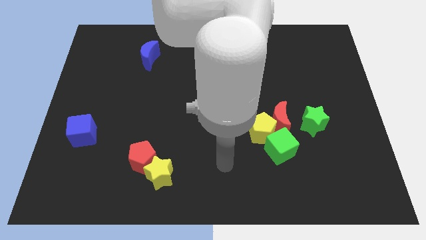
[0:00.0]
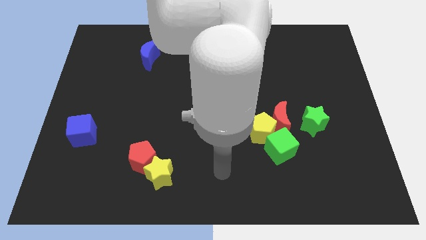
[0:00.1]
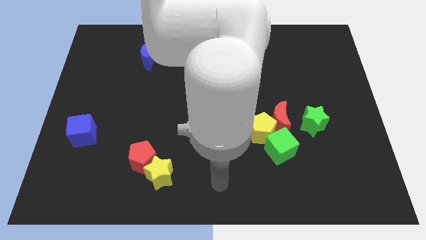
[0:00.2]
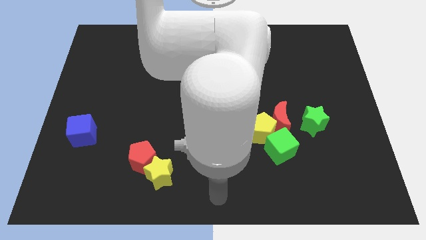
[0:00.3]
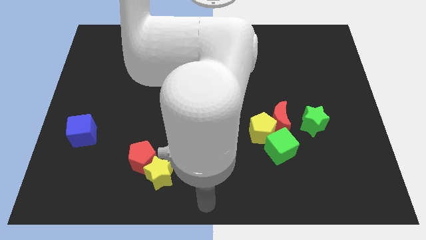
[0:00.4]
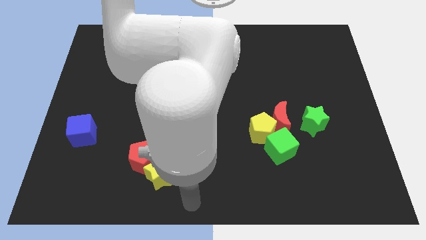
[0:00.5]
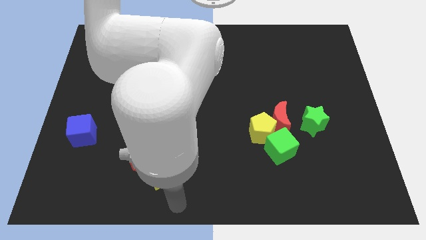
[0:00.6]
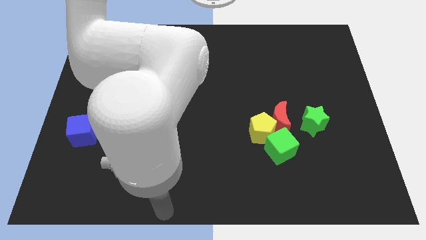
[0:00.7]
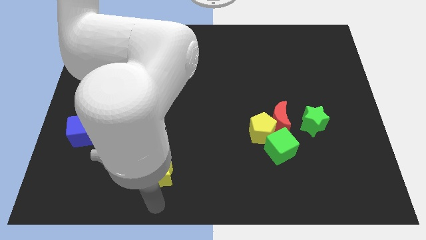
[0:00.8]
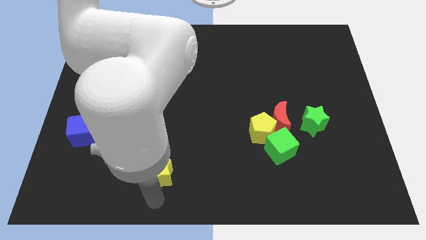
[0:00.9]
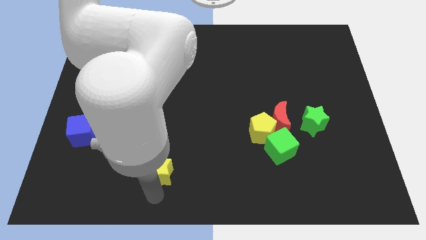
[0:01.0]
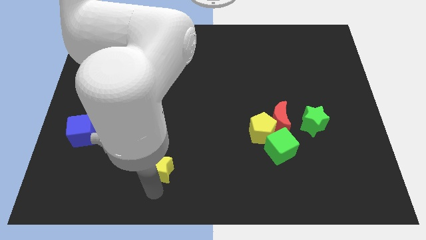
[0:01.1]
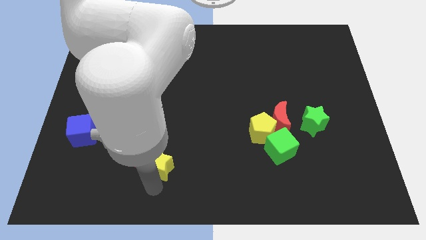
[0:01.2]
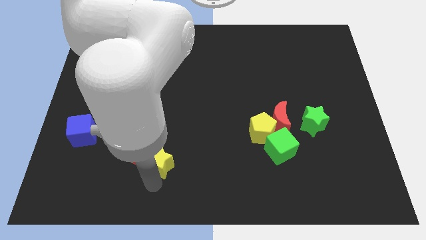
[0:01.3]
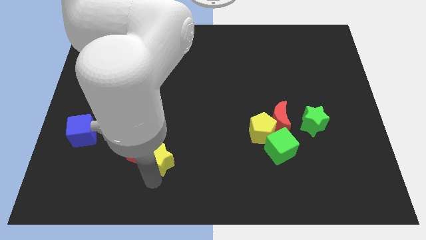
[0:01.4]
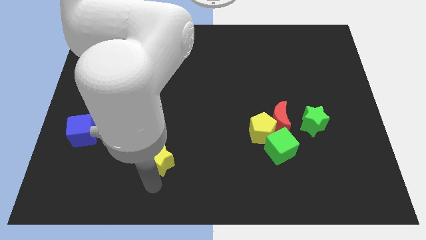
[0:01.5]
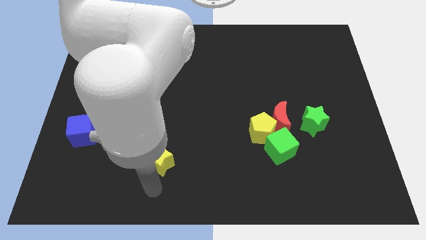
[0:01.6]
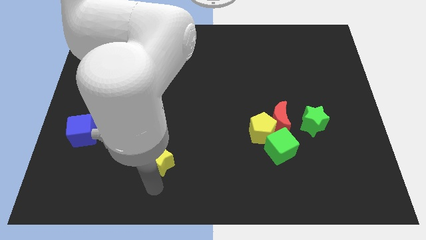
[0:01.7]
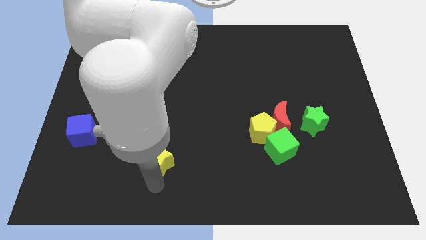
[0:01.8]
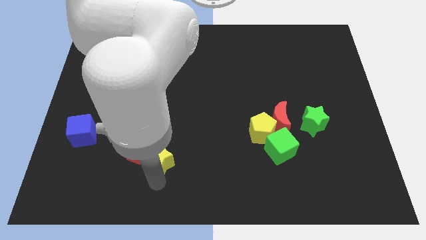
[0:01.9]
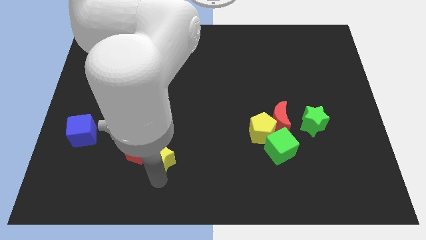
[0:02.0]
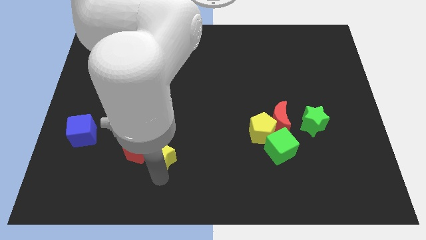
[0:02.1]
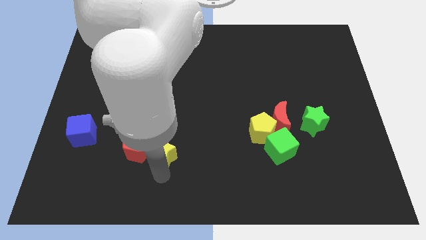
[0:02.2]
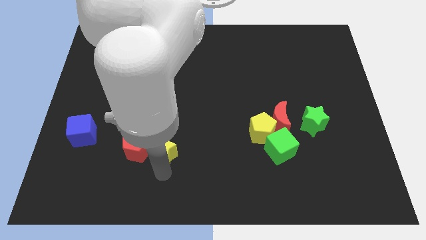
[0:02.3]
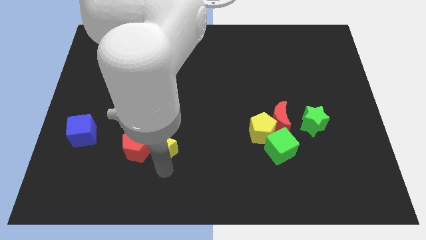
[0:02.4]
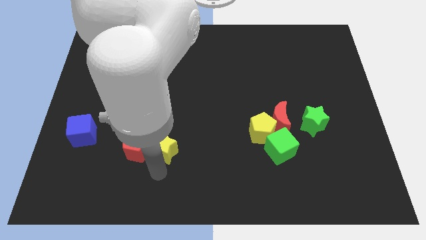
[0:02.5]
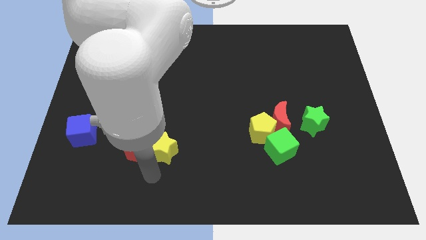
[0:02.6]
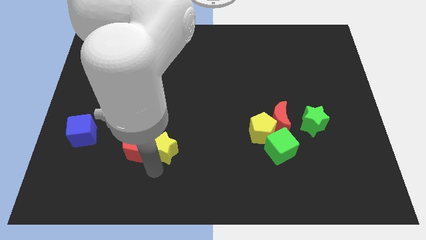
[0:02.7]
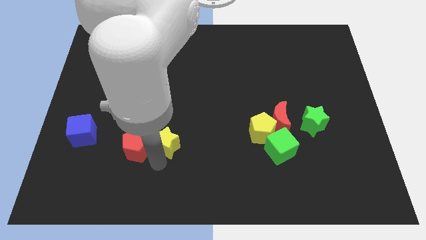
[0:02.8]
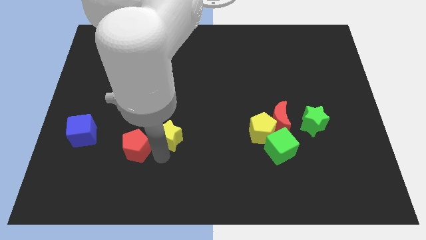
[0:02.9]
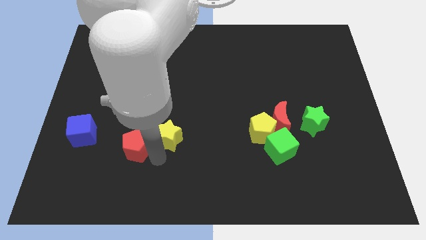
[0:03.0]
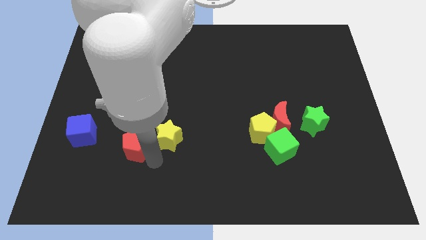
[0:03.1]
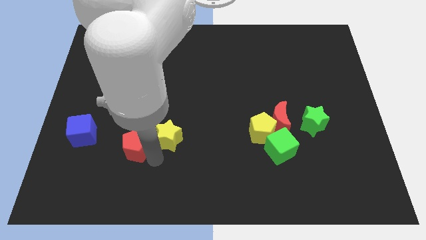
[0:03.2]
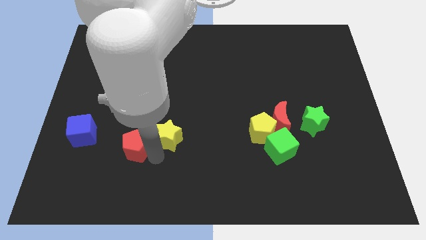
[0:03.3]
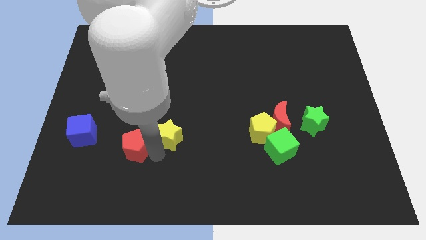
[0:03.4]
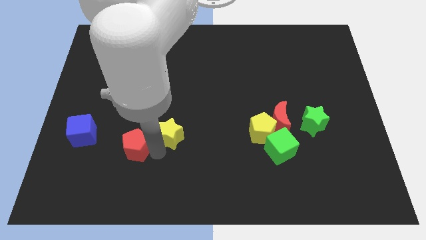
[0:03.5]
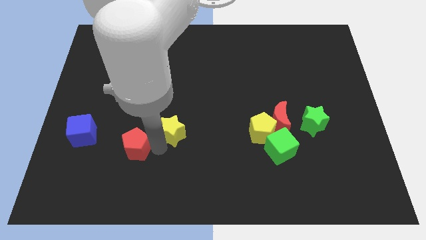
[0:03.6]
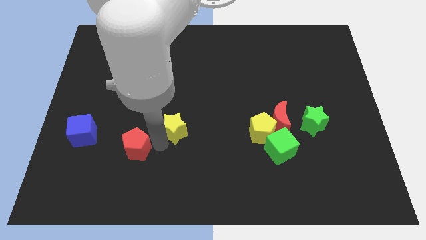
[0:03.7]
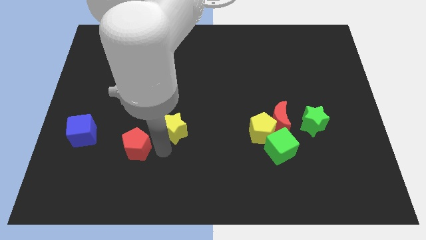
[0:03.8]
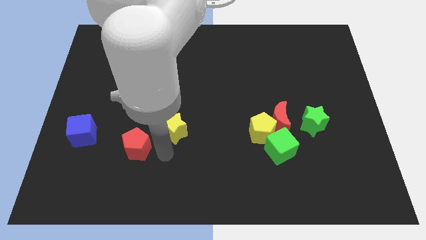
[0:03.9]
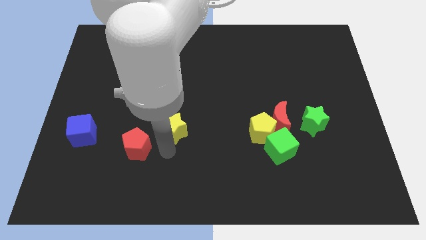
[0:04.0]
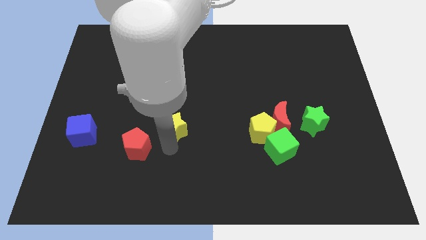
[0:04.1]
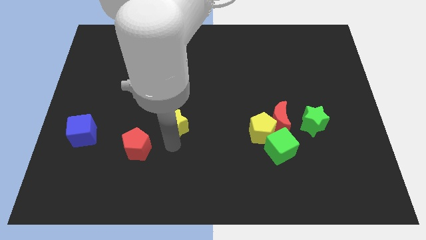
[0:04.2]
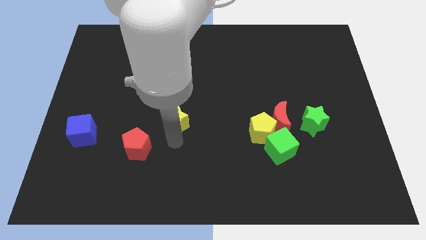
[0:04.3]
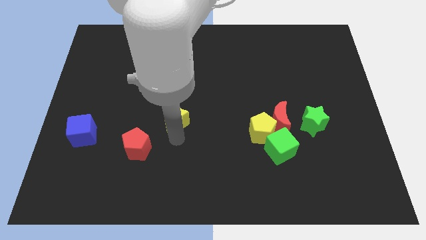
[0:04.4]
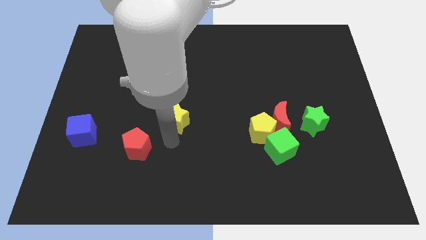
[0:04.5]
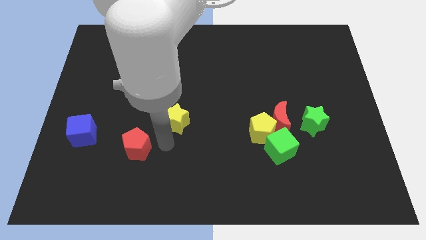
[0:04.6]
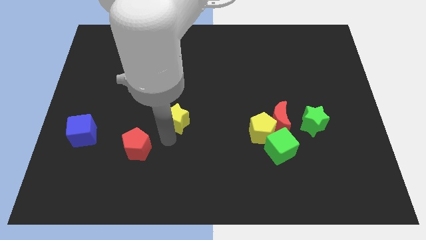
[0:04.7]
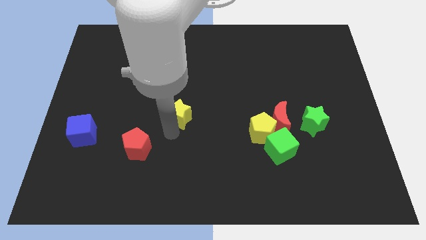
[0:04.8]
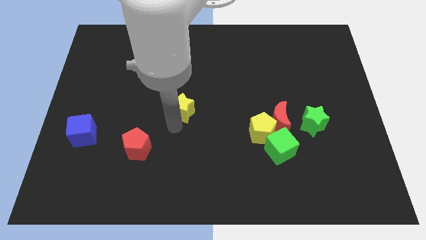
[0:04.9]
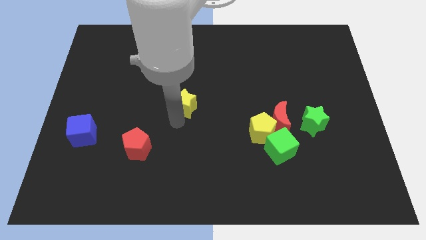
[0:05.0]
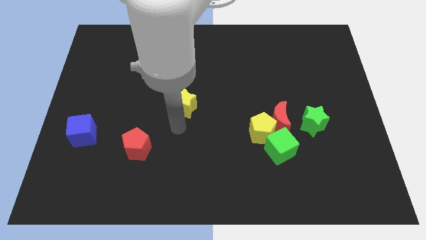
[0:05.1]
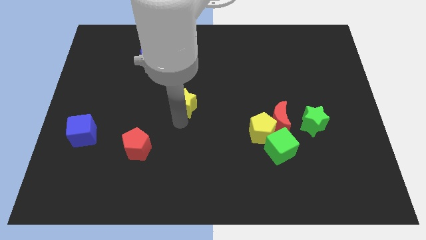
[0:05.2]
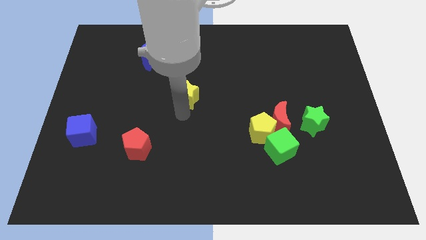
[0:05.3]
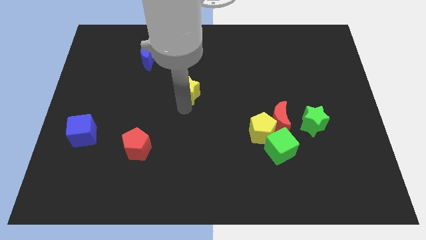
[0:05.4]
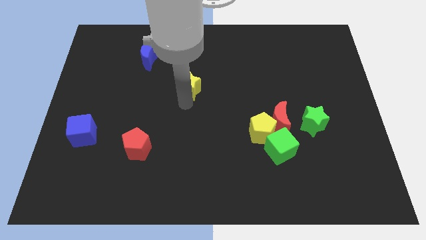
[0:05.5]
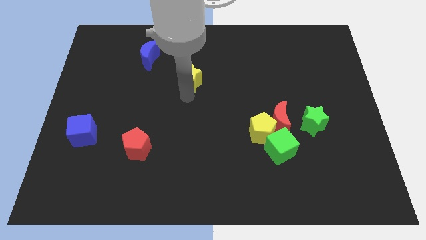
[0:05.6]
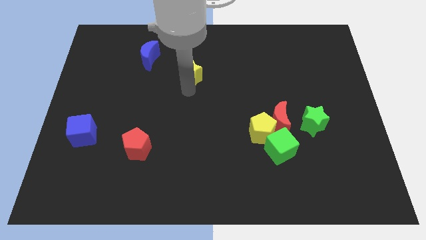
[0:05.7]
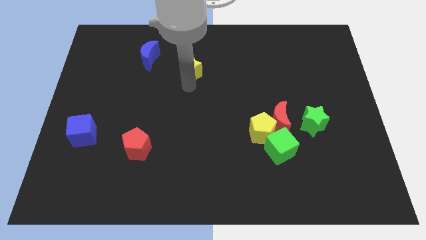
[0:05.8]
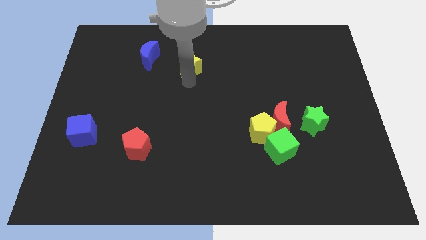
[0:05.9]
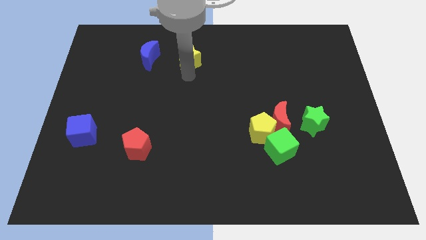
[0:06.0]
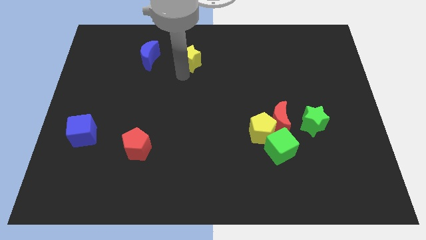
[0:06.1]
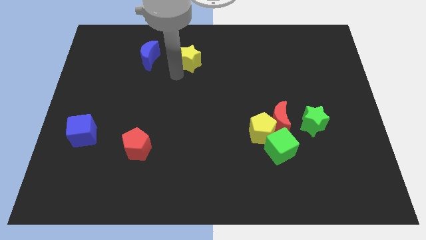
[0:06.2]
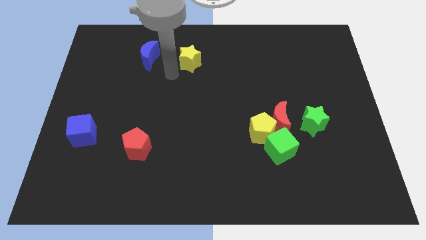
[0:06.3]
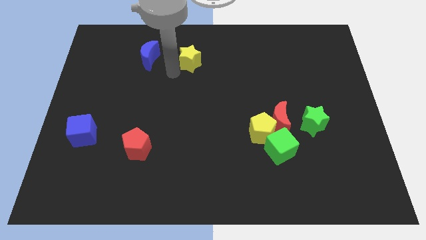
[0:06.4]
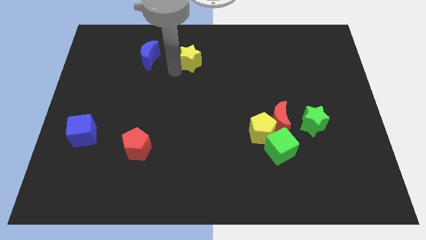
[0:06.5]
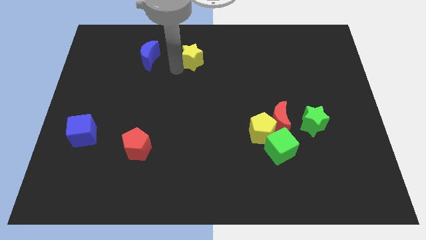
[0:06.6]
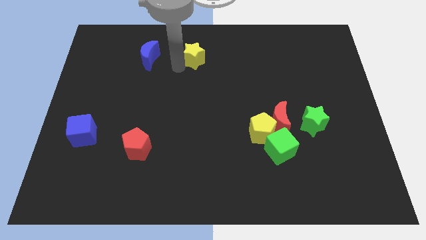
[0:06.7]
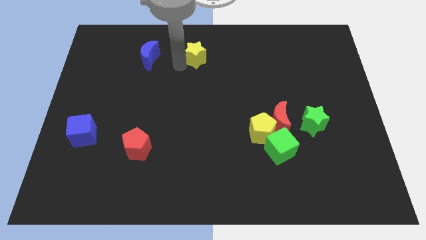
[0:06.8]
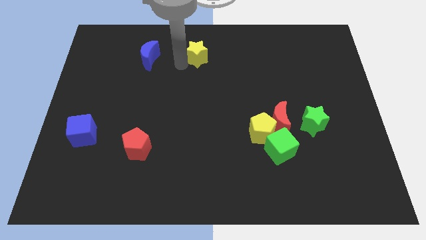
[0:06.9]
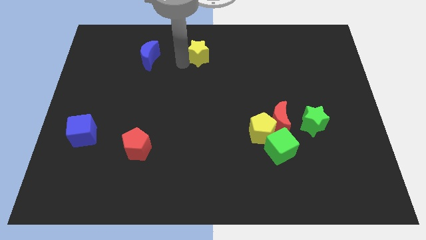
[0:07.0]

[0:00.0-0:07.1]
push the yellow star to the towards your base
